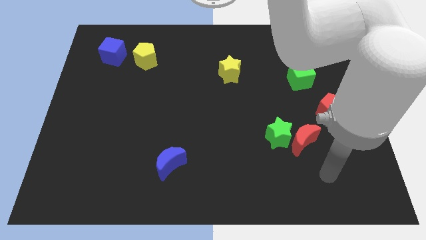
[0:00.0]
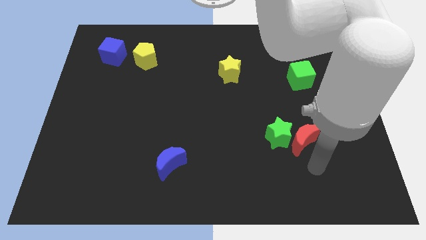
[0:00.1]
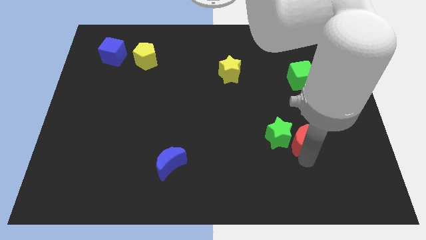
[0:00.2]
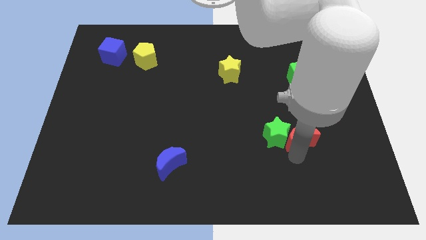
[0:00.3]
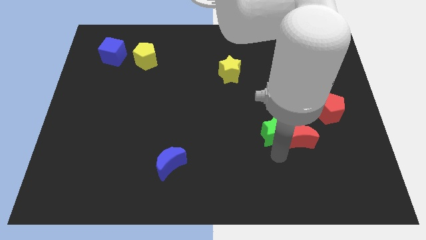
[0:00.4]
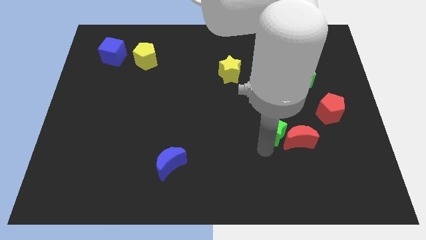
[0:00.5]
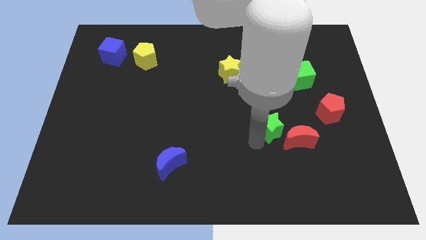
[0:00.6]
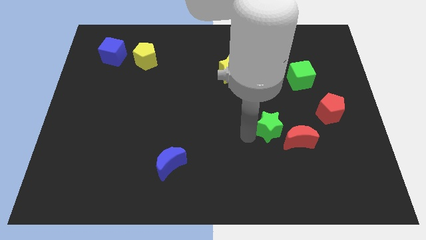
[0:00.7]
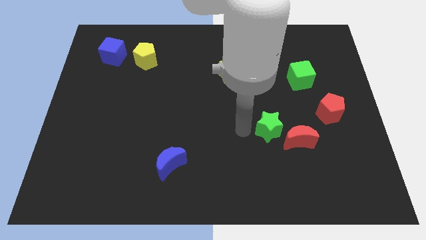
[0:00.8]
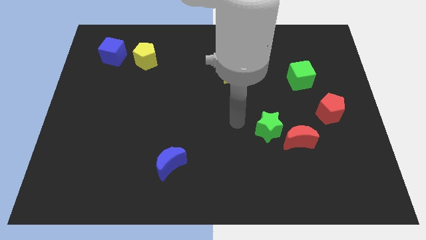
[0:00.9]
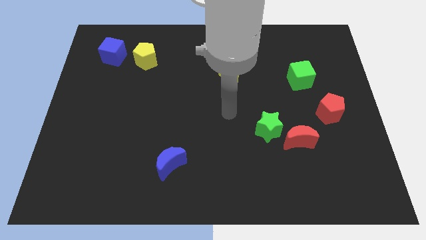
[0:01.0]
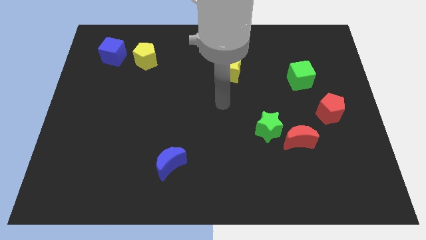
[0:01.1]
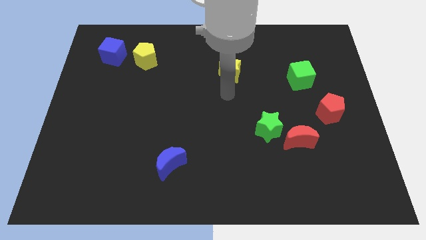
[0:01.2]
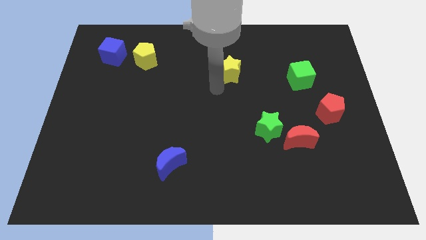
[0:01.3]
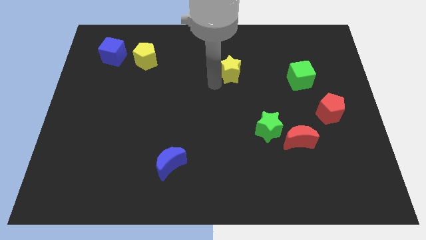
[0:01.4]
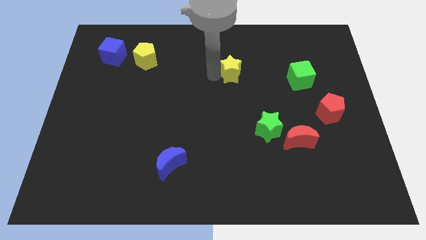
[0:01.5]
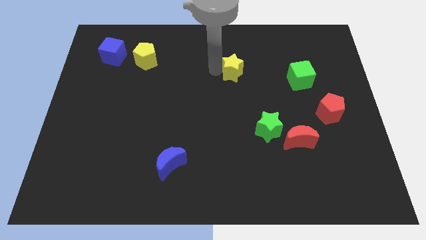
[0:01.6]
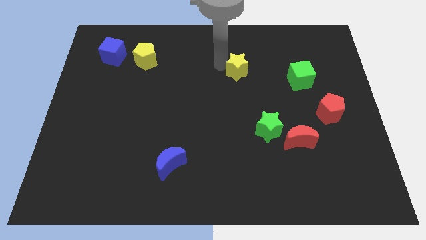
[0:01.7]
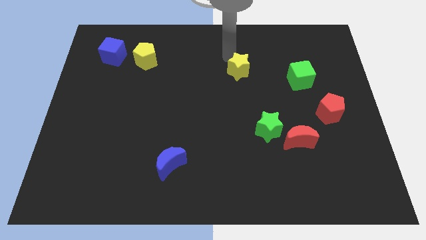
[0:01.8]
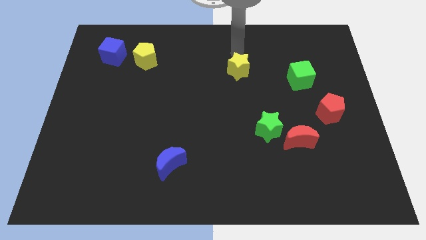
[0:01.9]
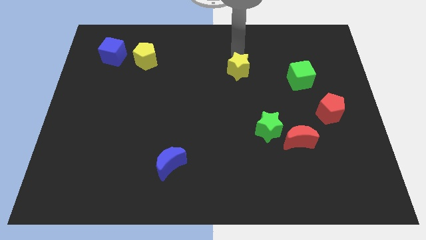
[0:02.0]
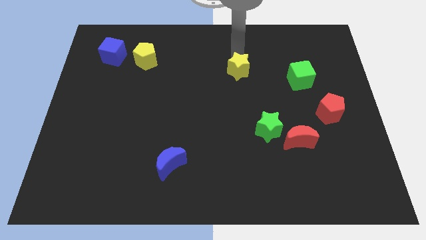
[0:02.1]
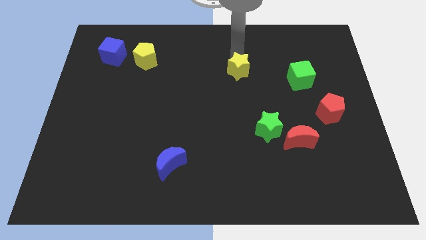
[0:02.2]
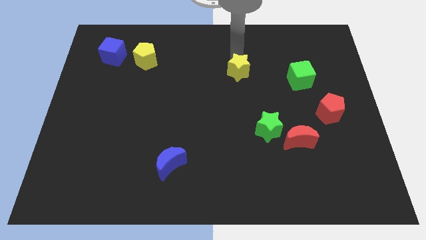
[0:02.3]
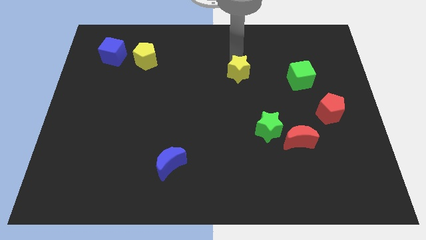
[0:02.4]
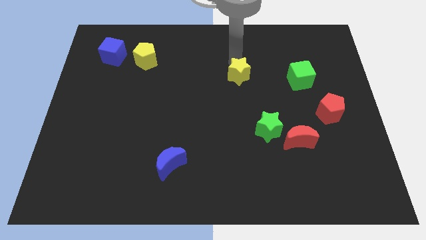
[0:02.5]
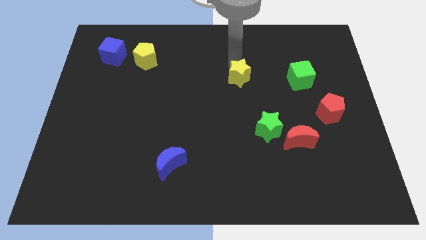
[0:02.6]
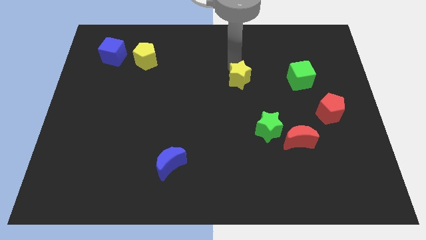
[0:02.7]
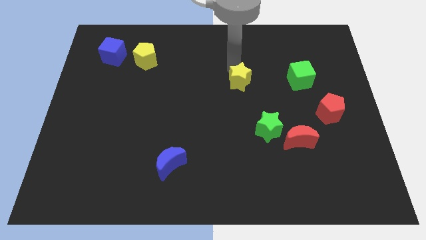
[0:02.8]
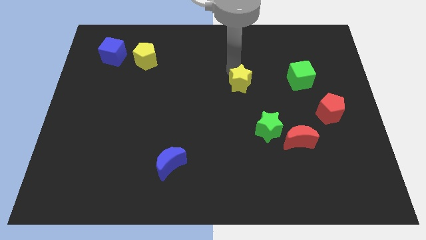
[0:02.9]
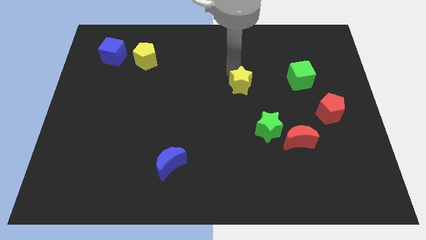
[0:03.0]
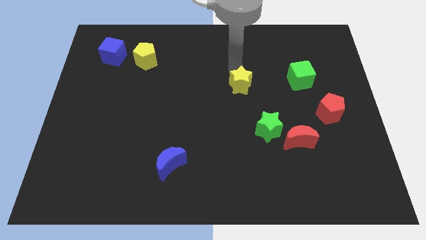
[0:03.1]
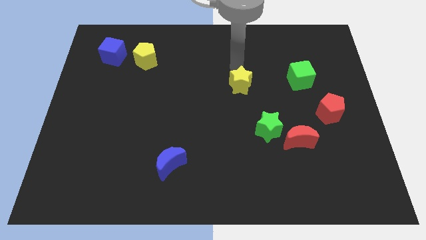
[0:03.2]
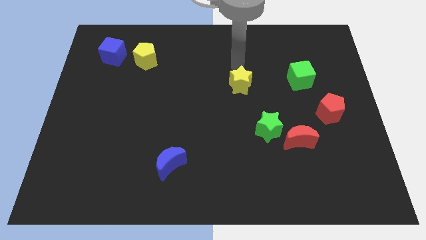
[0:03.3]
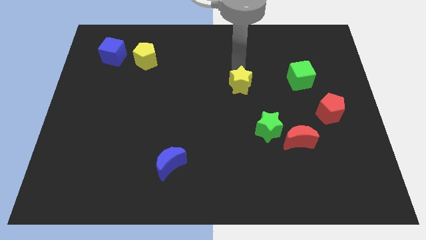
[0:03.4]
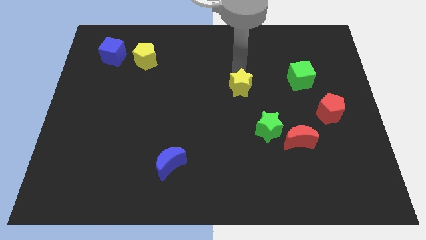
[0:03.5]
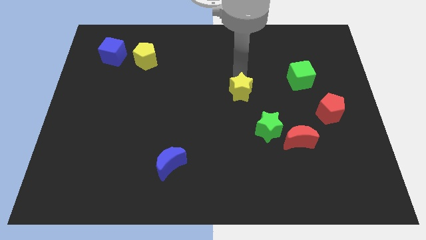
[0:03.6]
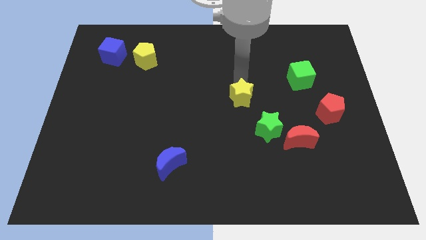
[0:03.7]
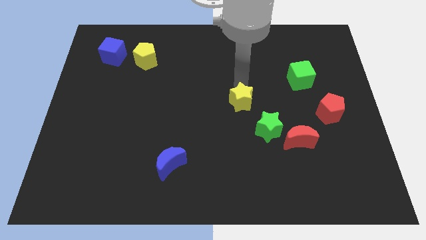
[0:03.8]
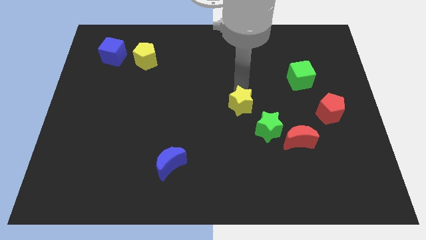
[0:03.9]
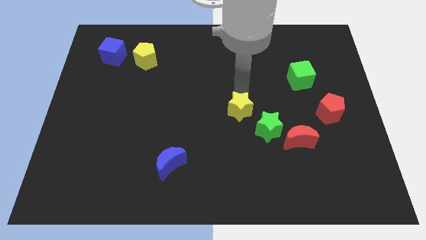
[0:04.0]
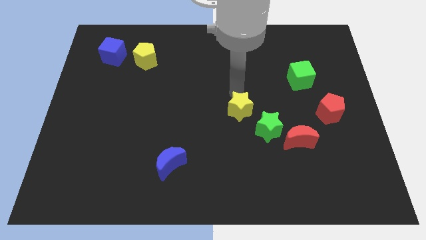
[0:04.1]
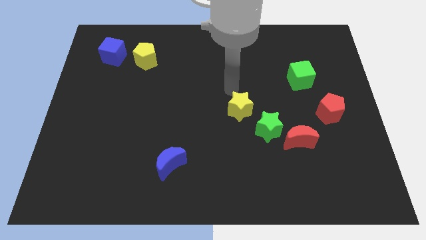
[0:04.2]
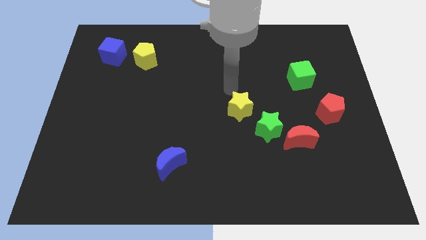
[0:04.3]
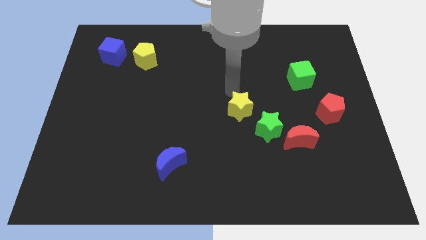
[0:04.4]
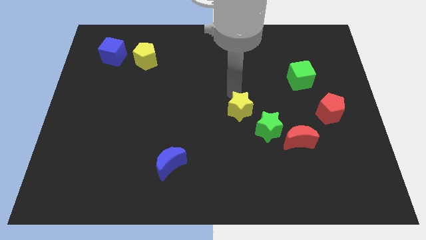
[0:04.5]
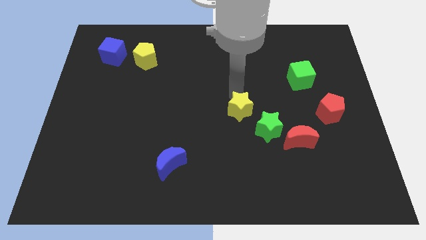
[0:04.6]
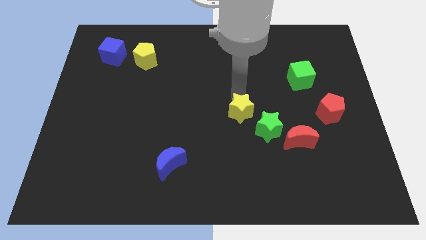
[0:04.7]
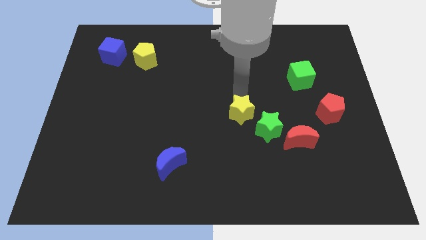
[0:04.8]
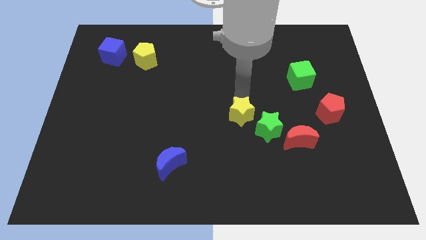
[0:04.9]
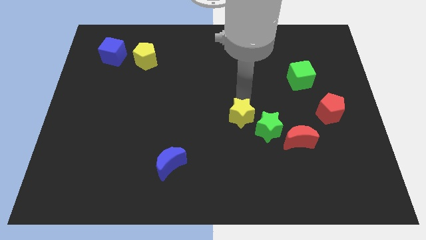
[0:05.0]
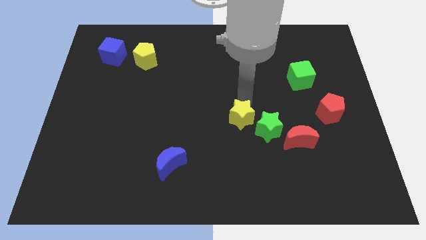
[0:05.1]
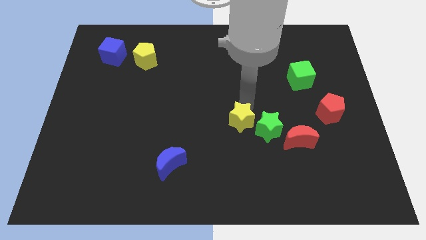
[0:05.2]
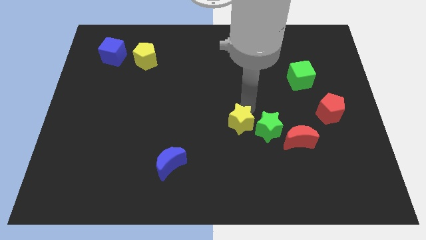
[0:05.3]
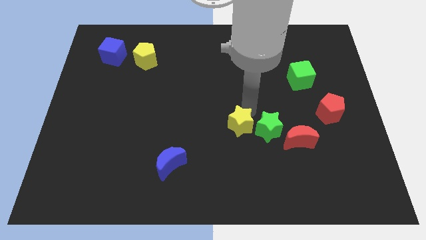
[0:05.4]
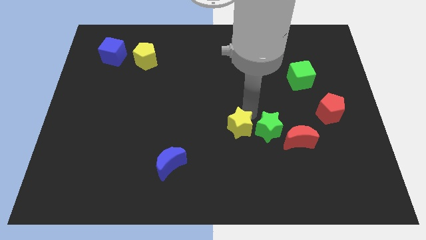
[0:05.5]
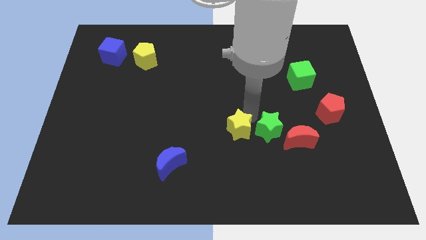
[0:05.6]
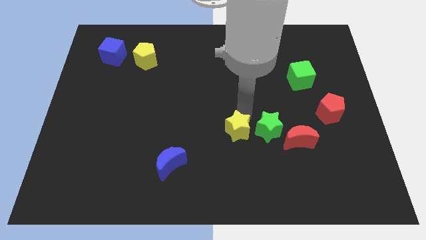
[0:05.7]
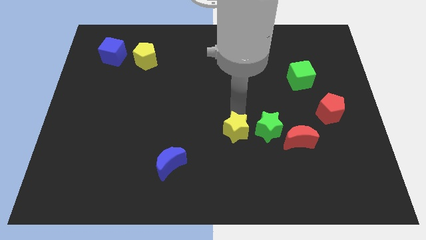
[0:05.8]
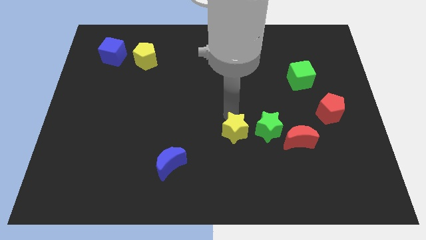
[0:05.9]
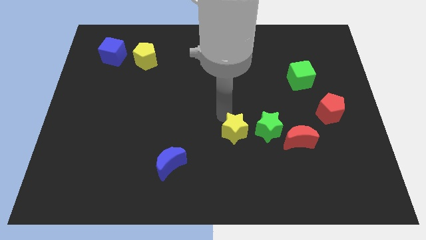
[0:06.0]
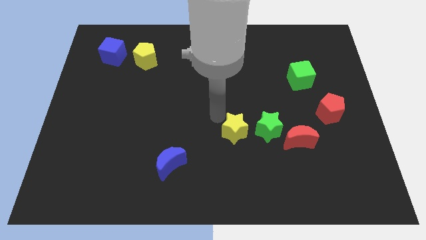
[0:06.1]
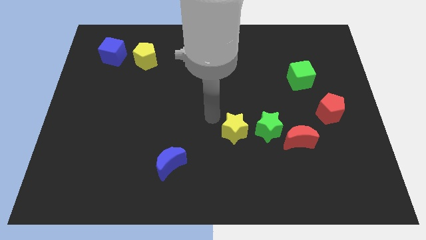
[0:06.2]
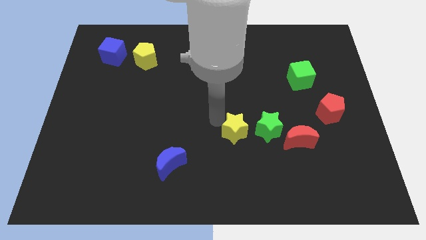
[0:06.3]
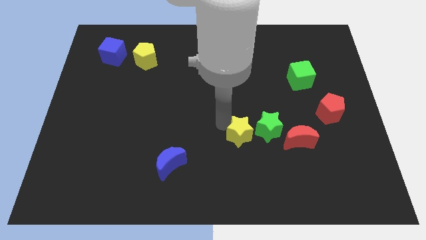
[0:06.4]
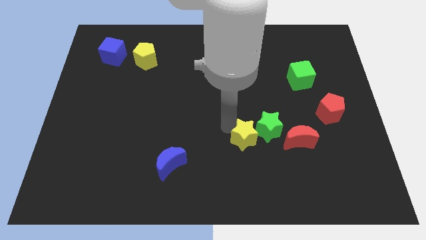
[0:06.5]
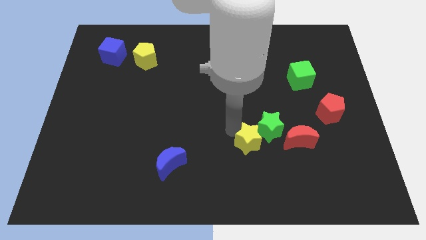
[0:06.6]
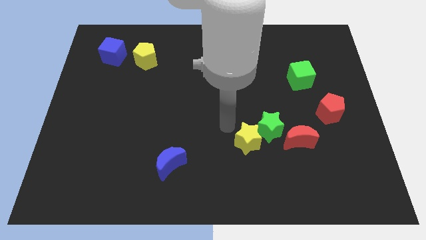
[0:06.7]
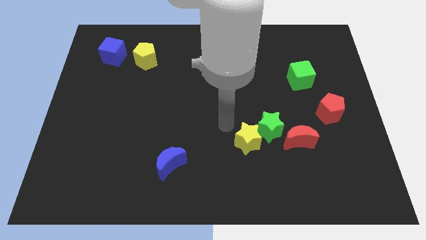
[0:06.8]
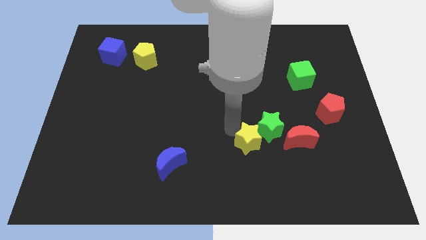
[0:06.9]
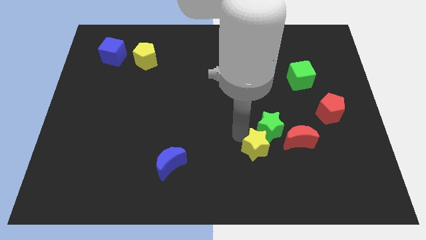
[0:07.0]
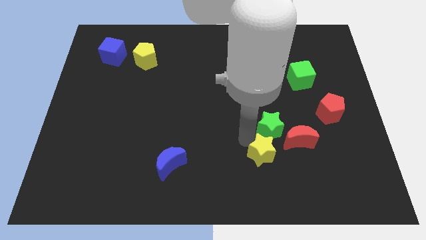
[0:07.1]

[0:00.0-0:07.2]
push the yellow star to the bottom left side of the red moon

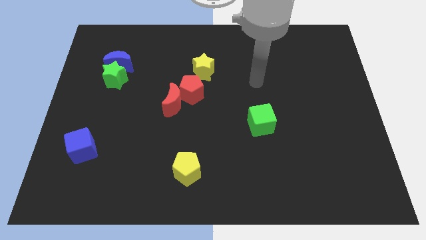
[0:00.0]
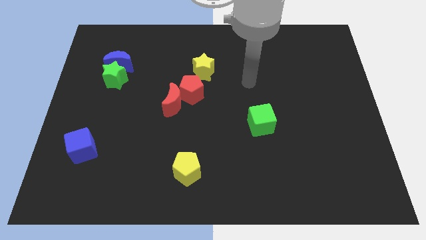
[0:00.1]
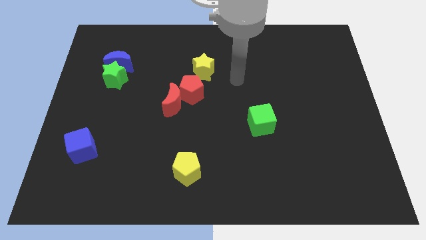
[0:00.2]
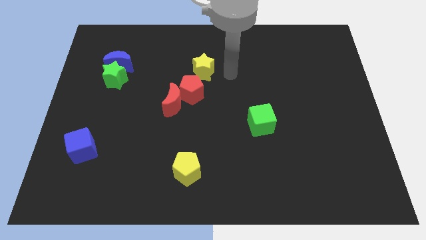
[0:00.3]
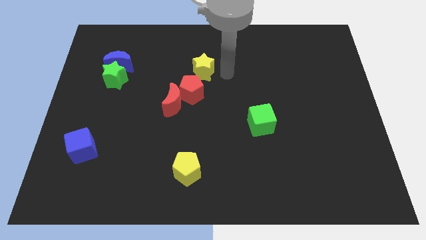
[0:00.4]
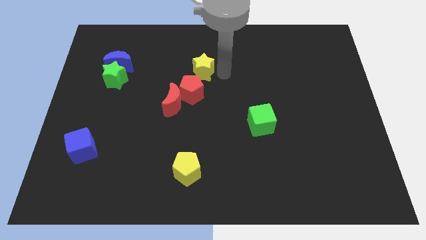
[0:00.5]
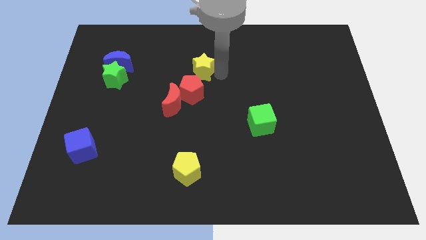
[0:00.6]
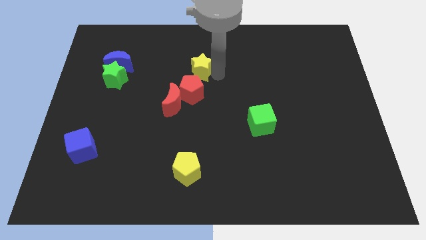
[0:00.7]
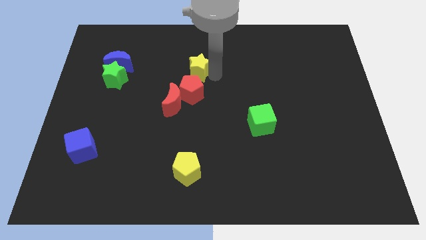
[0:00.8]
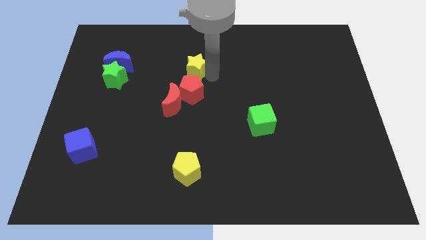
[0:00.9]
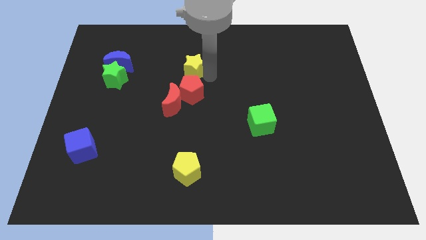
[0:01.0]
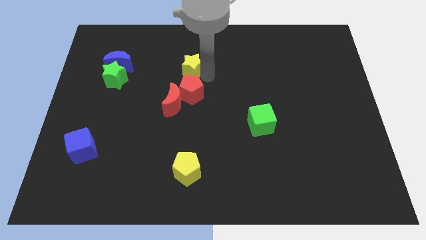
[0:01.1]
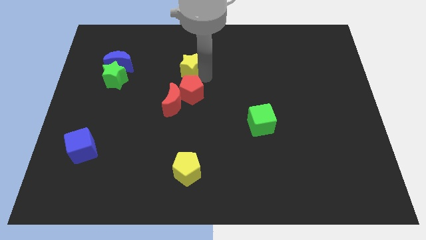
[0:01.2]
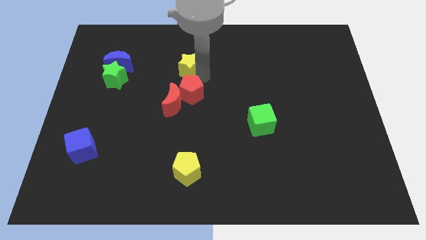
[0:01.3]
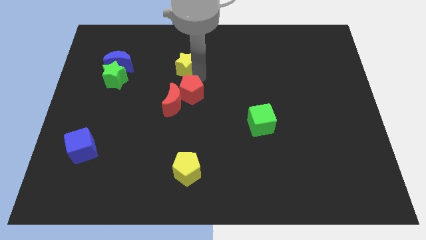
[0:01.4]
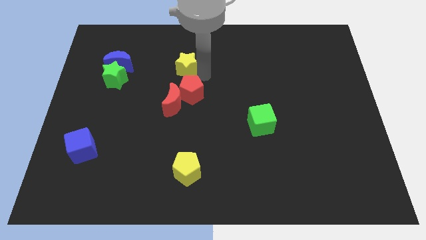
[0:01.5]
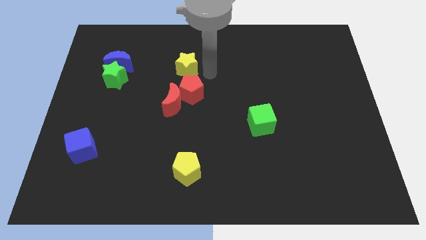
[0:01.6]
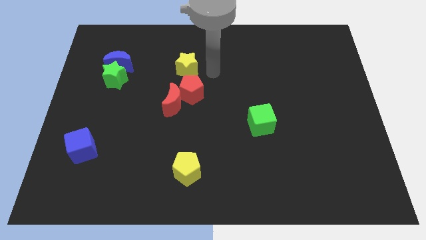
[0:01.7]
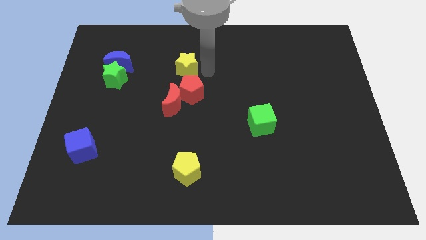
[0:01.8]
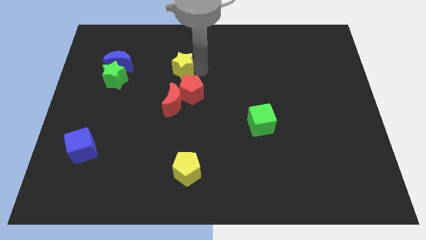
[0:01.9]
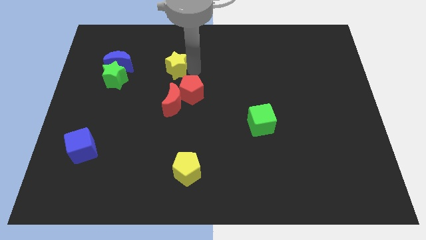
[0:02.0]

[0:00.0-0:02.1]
slide the yellow star to the right side of the blue moon
